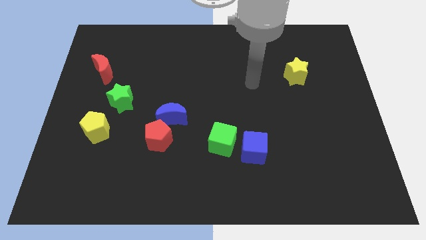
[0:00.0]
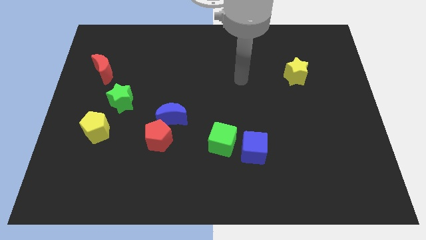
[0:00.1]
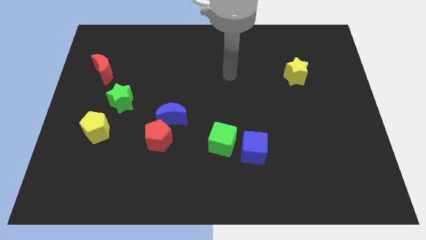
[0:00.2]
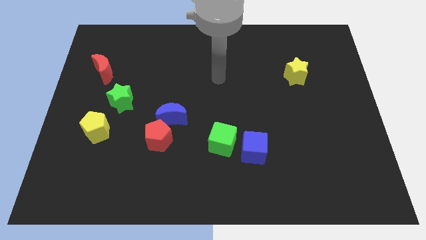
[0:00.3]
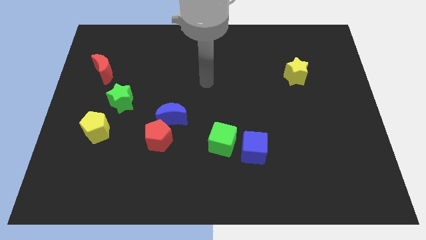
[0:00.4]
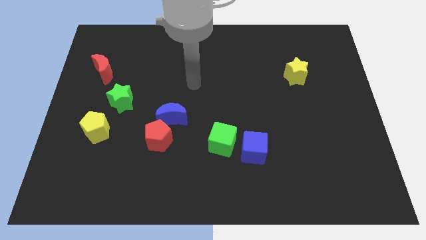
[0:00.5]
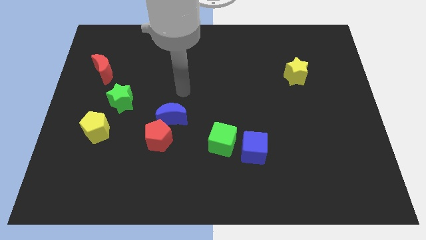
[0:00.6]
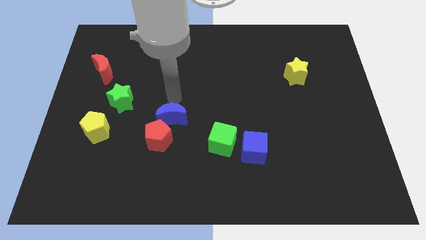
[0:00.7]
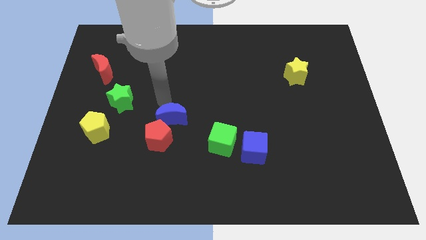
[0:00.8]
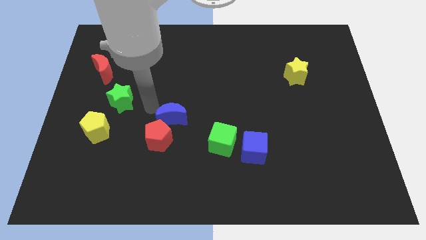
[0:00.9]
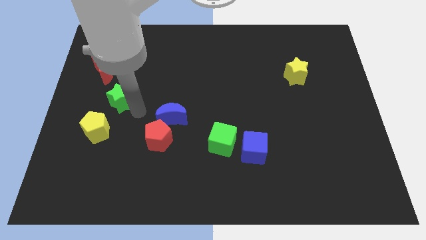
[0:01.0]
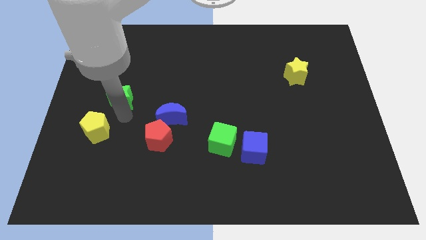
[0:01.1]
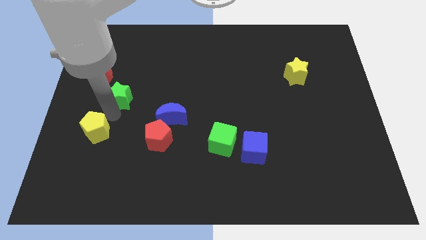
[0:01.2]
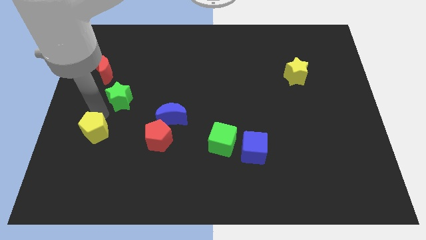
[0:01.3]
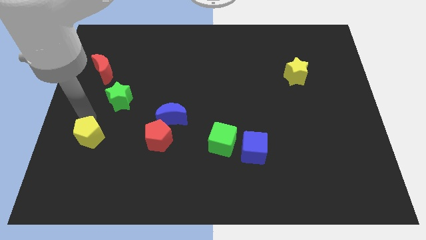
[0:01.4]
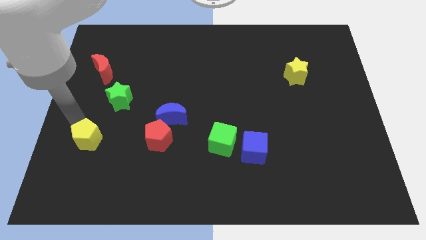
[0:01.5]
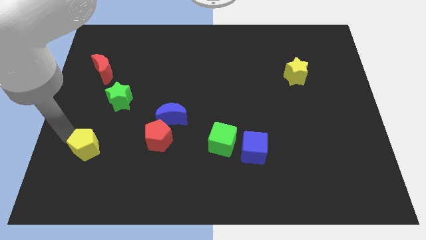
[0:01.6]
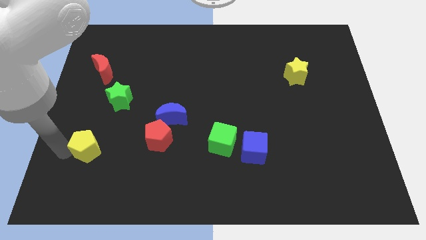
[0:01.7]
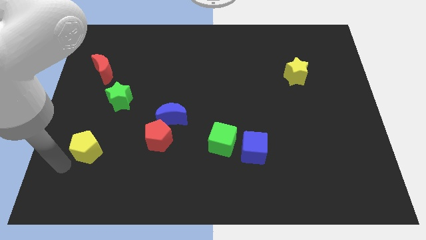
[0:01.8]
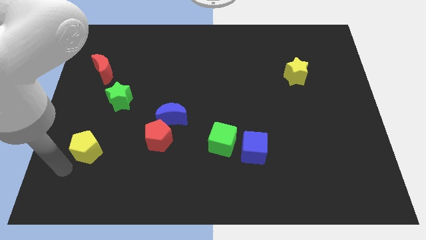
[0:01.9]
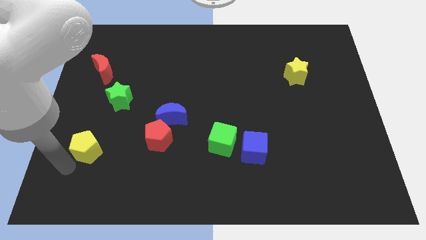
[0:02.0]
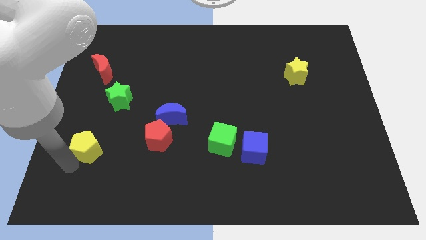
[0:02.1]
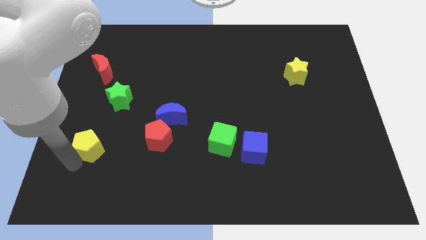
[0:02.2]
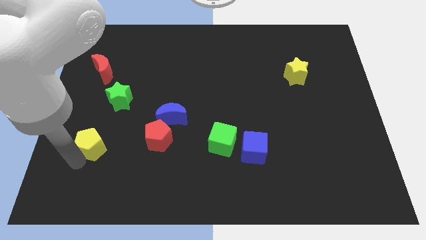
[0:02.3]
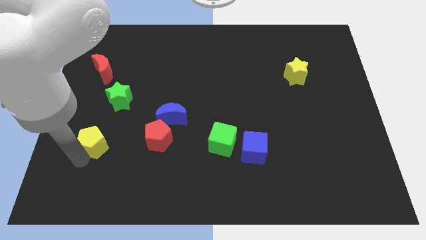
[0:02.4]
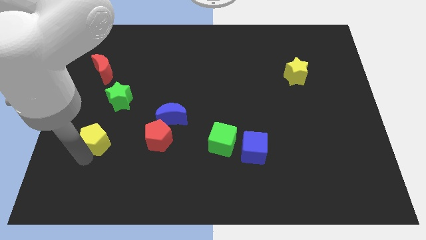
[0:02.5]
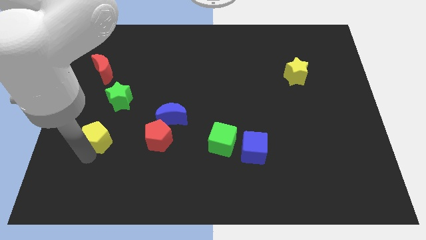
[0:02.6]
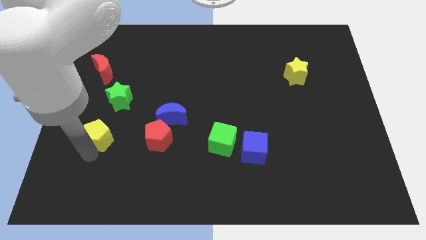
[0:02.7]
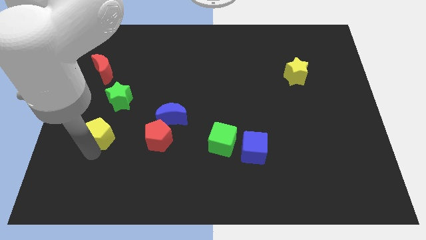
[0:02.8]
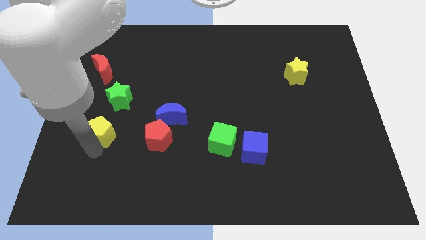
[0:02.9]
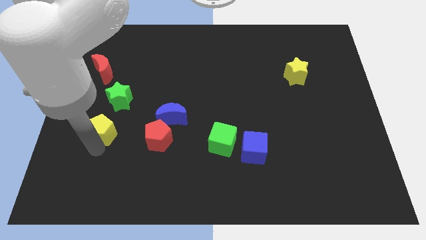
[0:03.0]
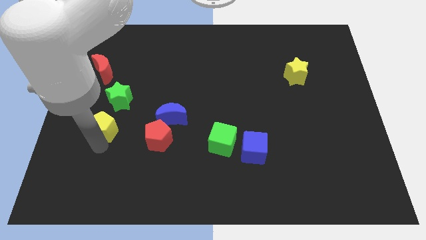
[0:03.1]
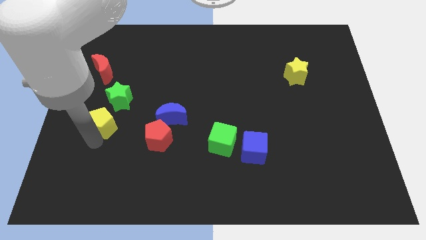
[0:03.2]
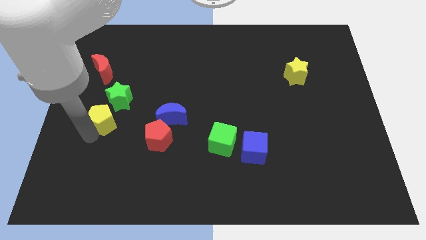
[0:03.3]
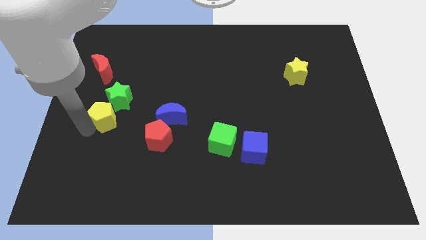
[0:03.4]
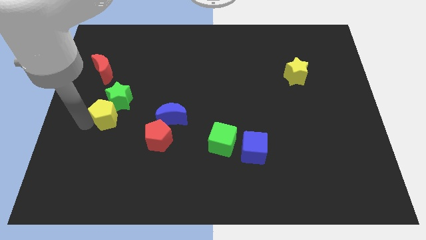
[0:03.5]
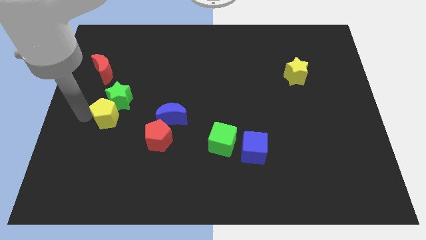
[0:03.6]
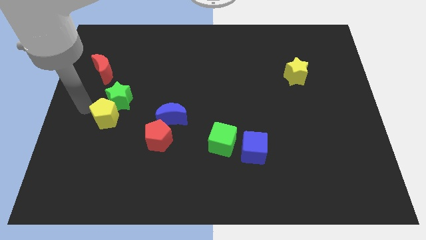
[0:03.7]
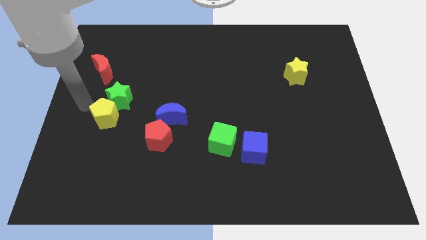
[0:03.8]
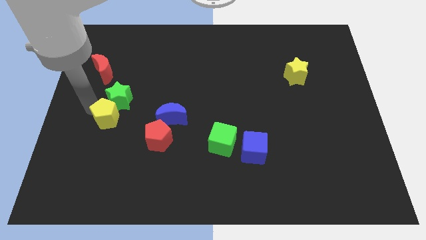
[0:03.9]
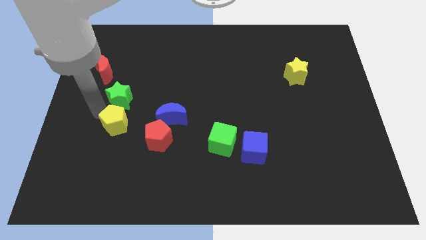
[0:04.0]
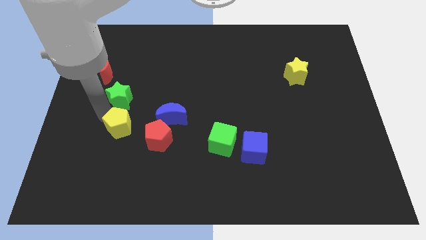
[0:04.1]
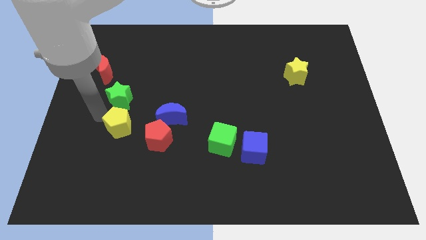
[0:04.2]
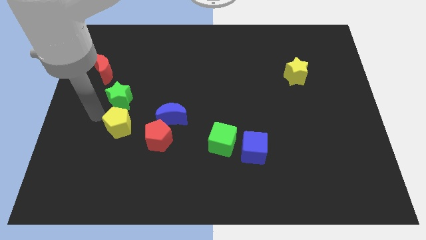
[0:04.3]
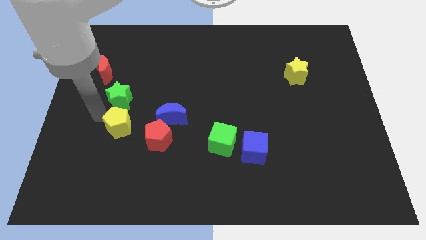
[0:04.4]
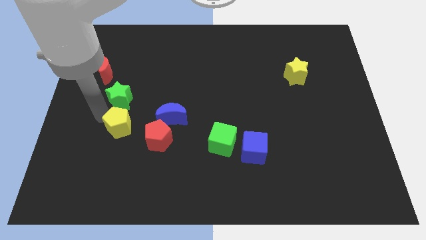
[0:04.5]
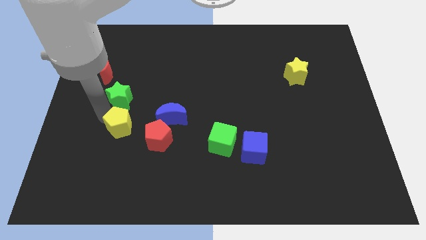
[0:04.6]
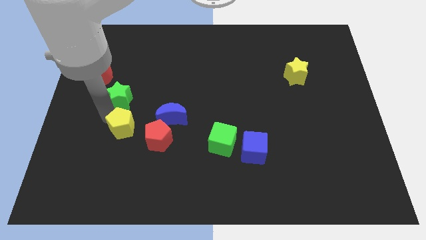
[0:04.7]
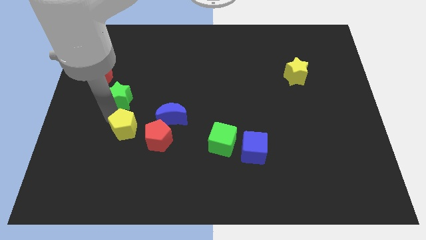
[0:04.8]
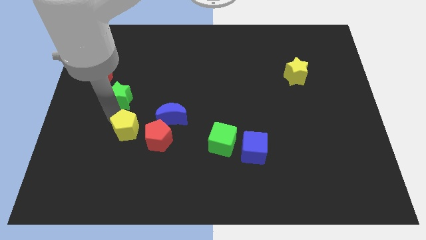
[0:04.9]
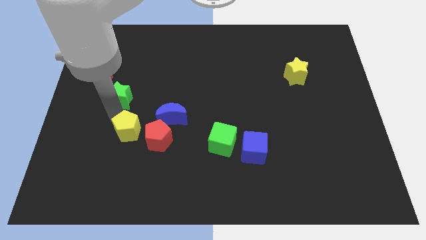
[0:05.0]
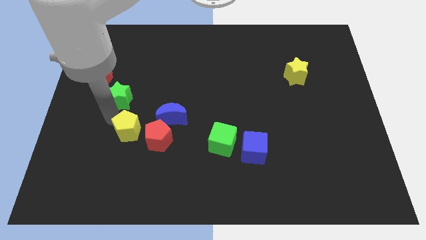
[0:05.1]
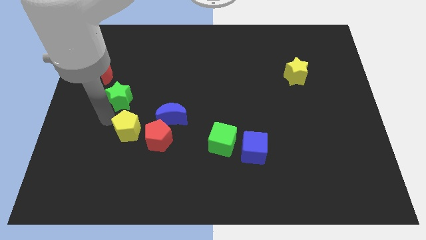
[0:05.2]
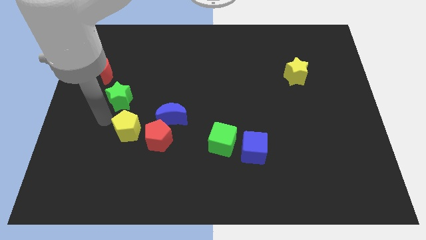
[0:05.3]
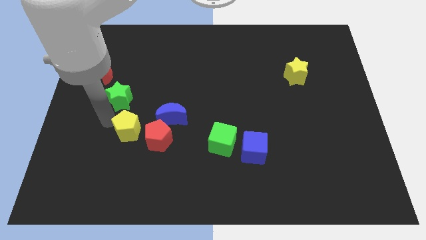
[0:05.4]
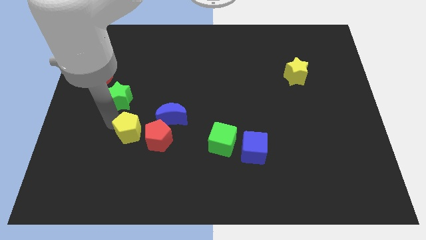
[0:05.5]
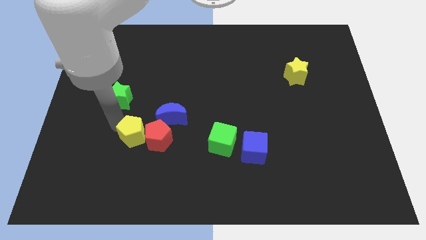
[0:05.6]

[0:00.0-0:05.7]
put the yellow pentagon close to the red pentagon
